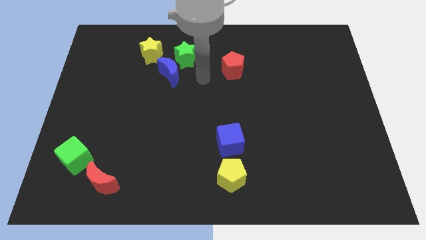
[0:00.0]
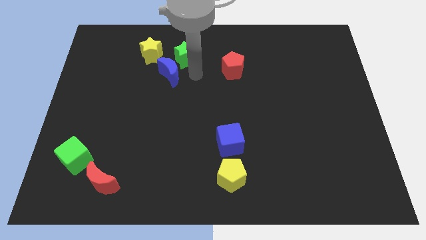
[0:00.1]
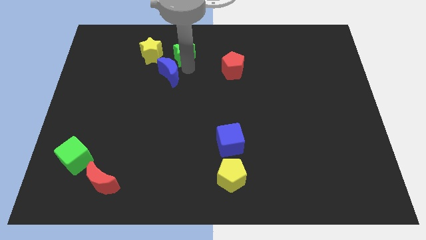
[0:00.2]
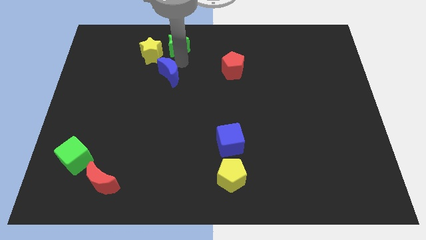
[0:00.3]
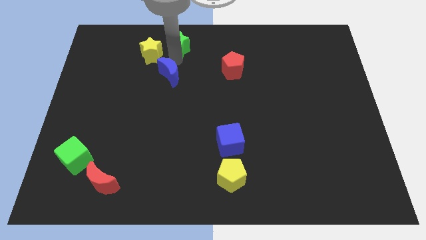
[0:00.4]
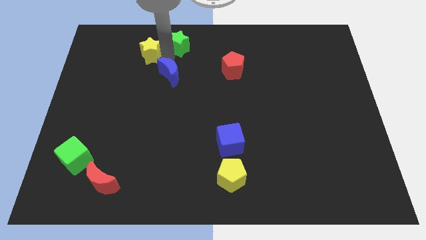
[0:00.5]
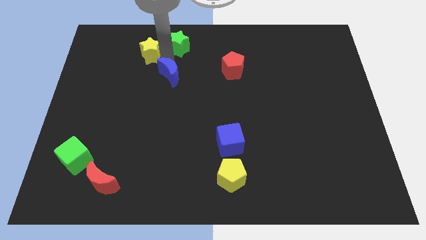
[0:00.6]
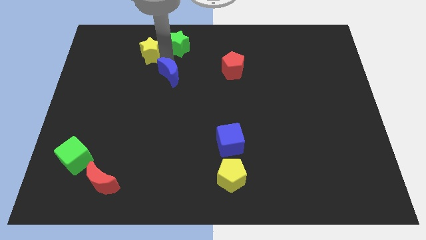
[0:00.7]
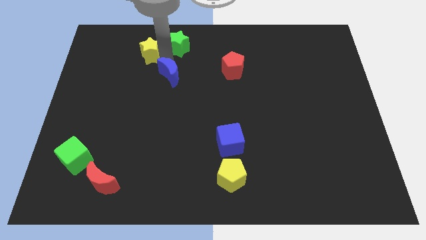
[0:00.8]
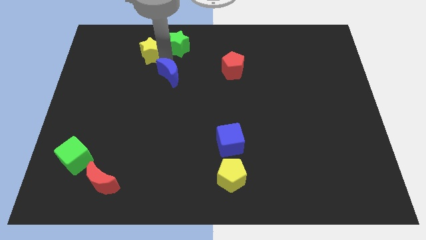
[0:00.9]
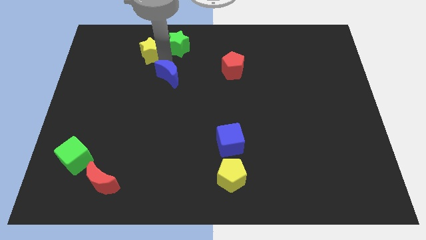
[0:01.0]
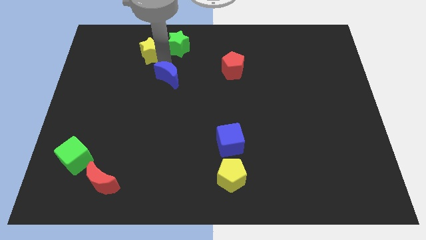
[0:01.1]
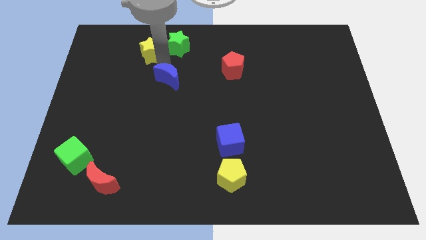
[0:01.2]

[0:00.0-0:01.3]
pull the blue moon apart from the green star and yellow star

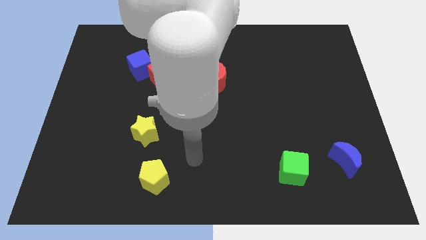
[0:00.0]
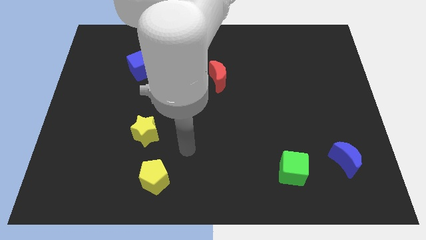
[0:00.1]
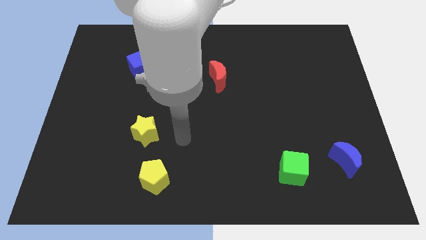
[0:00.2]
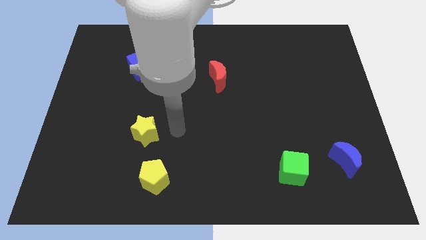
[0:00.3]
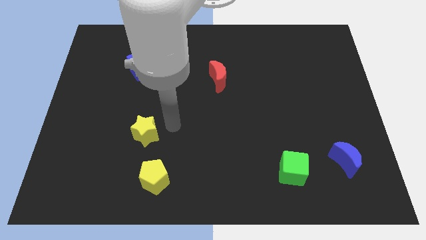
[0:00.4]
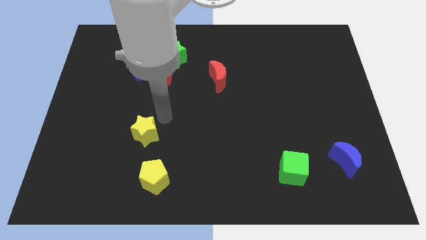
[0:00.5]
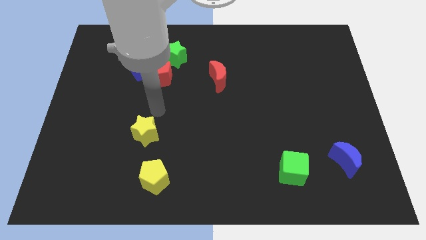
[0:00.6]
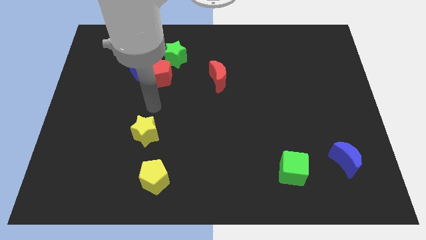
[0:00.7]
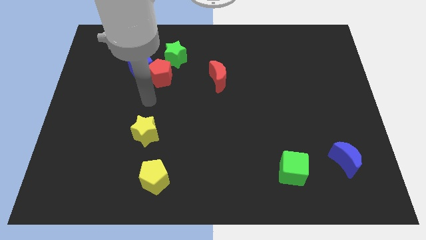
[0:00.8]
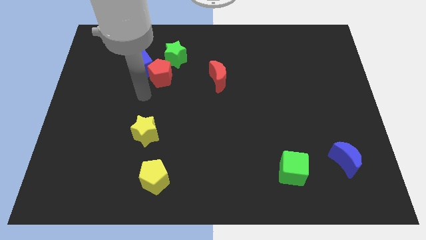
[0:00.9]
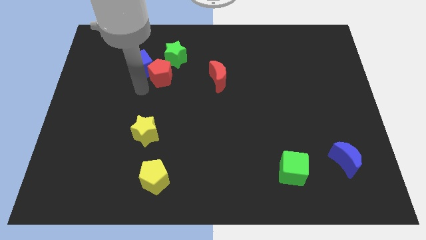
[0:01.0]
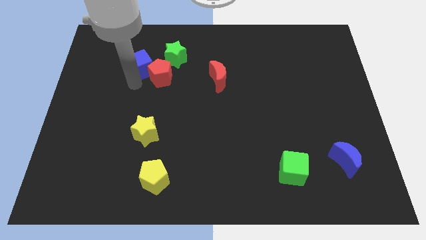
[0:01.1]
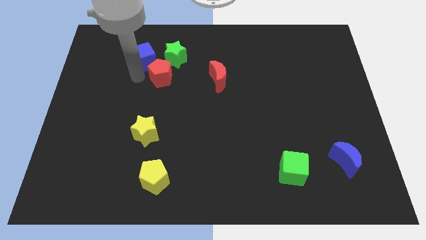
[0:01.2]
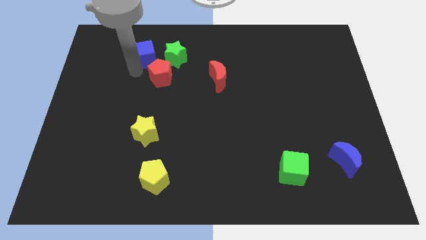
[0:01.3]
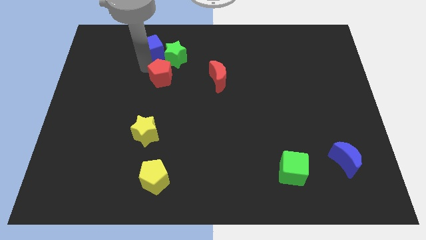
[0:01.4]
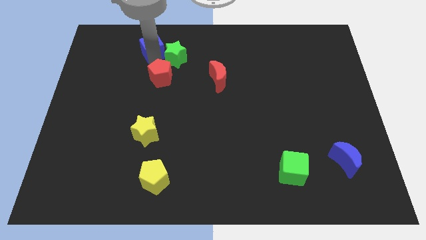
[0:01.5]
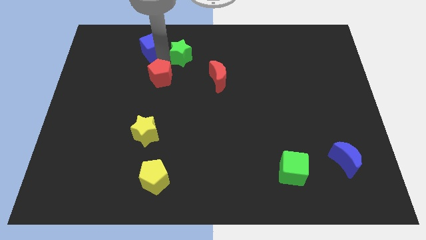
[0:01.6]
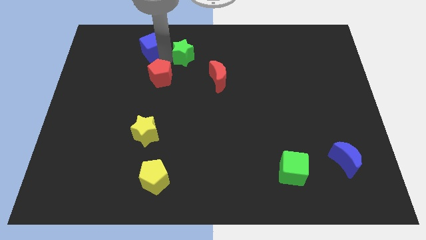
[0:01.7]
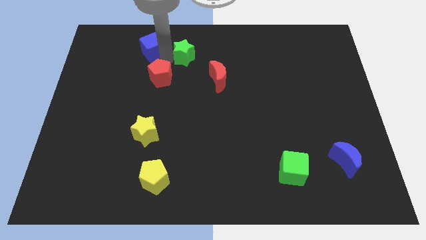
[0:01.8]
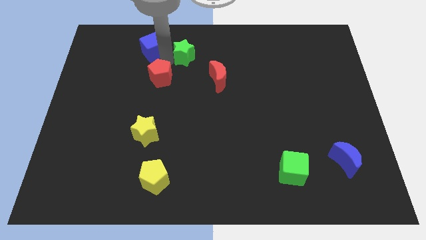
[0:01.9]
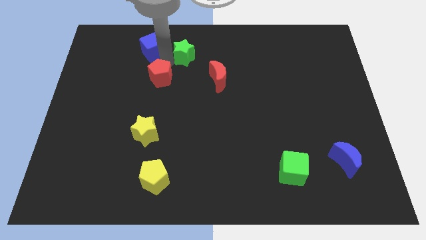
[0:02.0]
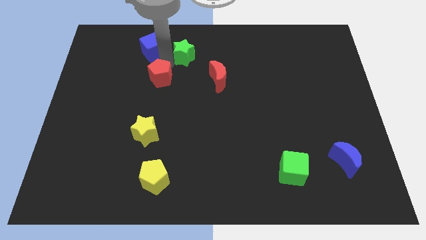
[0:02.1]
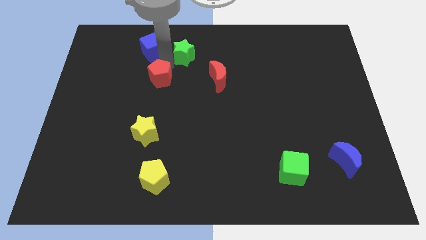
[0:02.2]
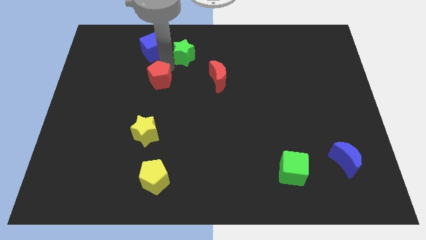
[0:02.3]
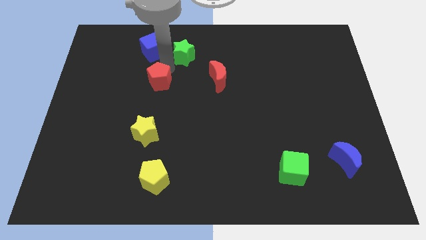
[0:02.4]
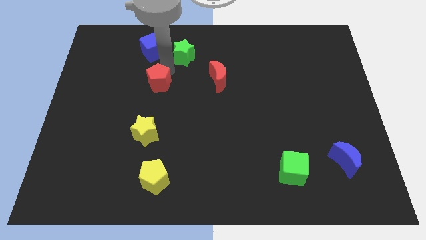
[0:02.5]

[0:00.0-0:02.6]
move the red pentagon away from the blue cube and green star

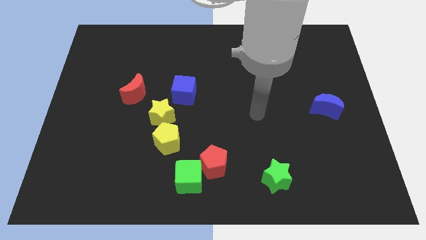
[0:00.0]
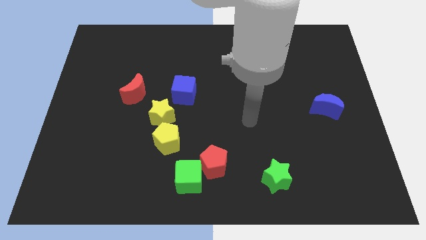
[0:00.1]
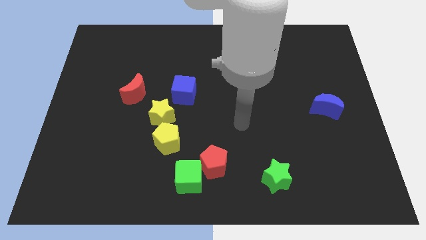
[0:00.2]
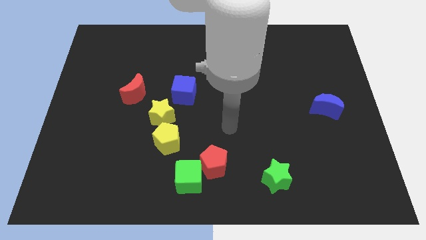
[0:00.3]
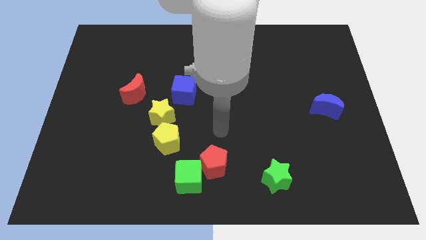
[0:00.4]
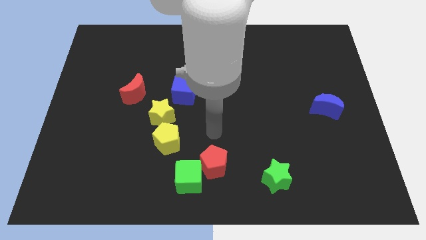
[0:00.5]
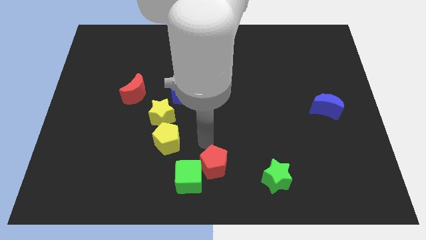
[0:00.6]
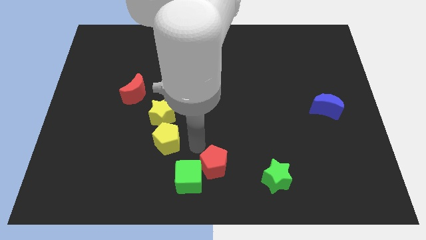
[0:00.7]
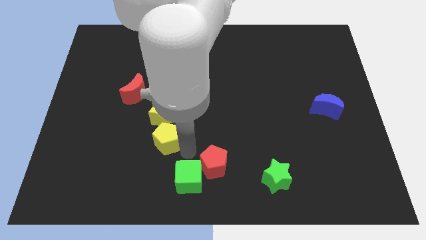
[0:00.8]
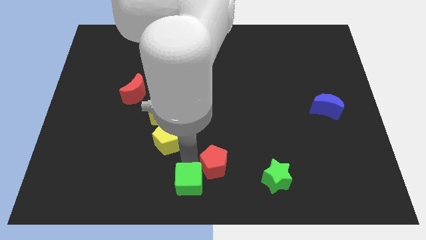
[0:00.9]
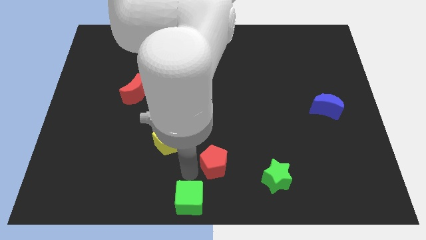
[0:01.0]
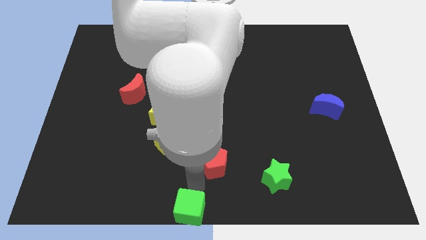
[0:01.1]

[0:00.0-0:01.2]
move the red pentagon away from the green cube

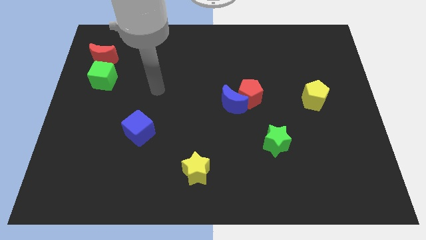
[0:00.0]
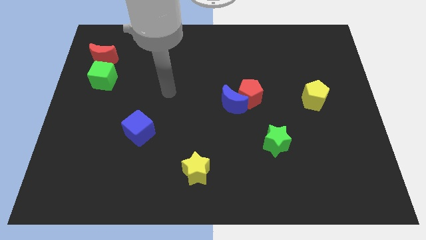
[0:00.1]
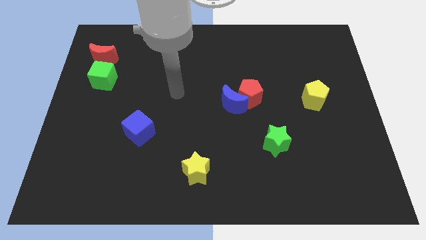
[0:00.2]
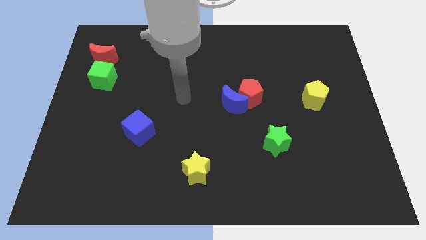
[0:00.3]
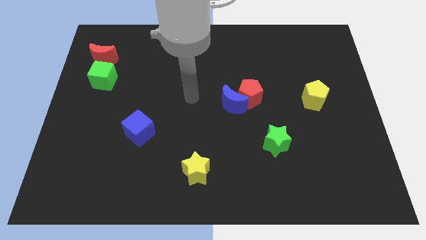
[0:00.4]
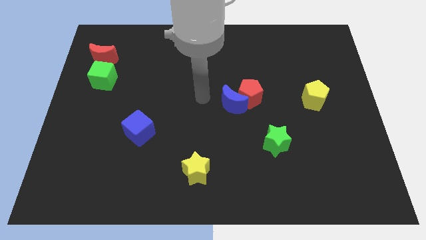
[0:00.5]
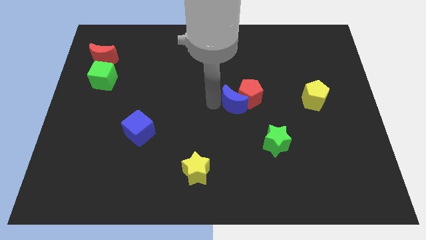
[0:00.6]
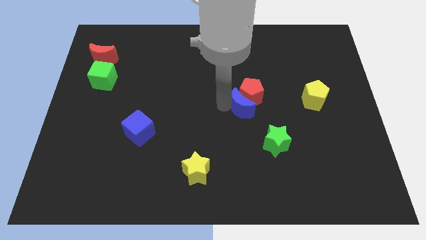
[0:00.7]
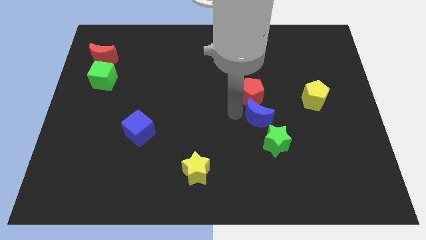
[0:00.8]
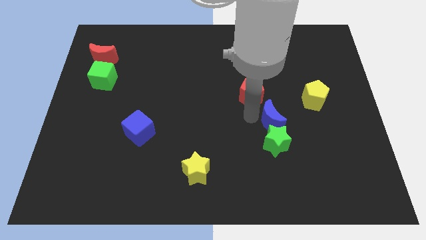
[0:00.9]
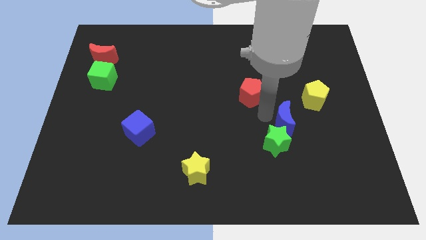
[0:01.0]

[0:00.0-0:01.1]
pull the red pentagon apart from the blue moon

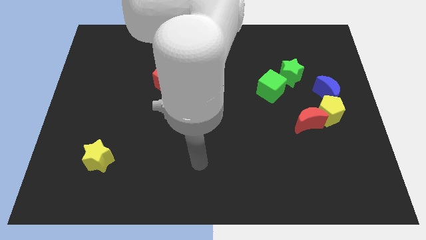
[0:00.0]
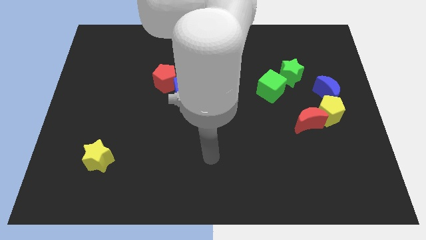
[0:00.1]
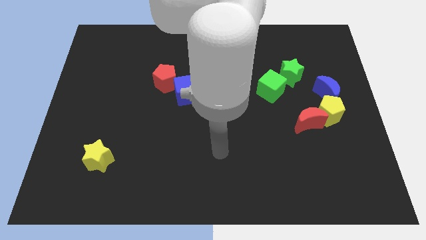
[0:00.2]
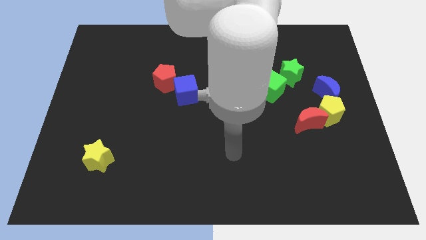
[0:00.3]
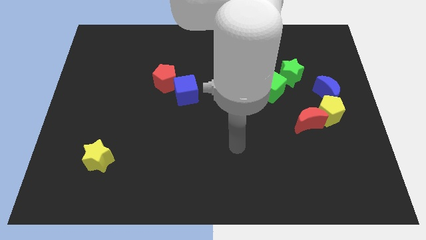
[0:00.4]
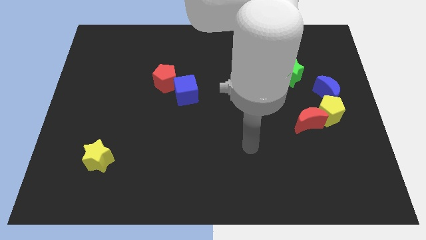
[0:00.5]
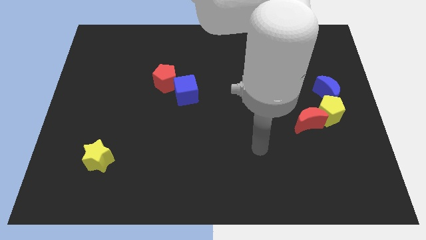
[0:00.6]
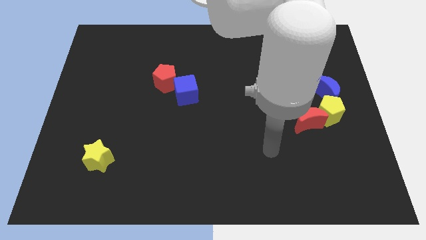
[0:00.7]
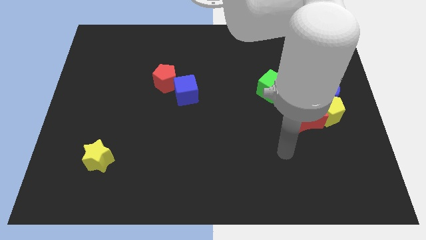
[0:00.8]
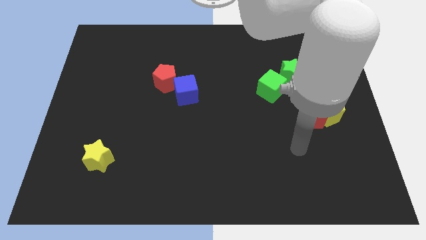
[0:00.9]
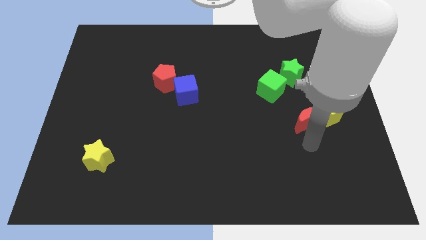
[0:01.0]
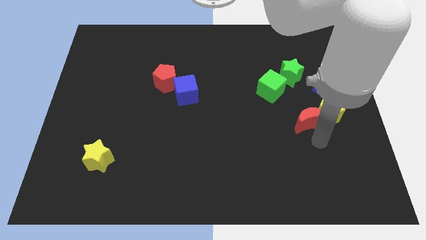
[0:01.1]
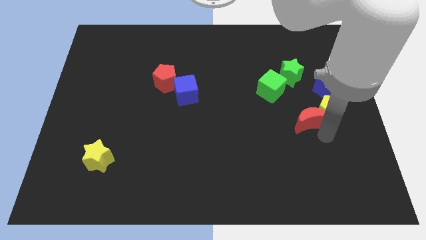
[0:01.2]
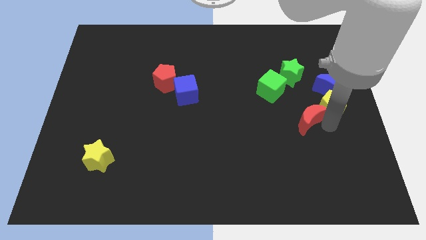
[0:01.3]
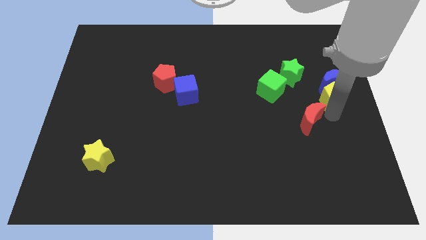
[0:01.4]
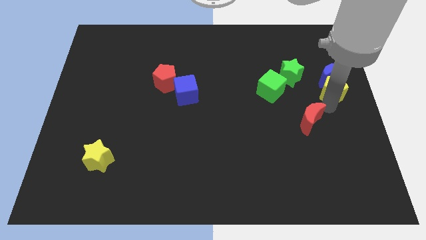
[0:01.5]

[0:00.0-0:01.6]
pull the red moon apart from the yellow pentagon

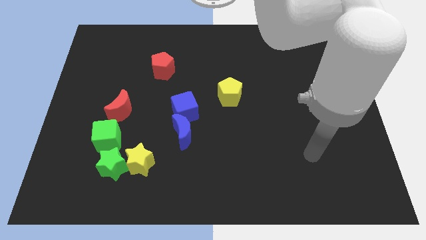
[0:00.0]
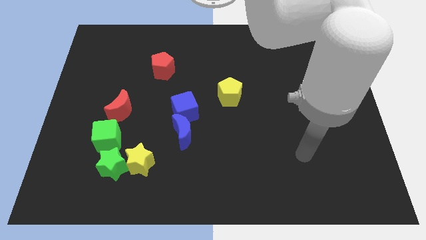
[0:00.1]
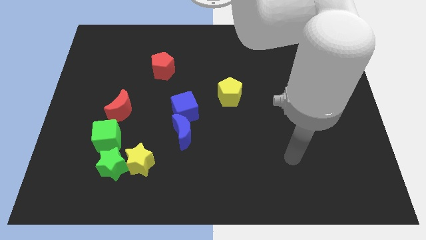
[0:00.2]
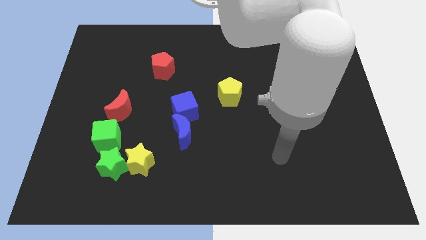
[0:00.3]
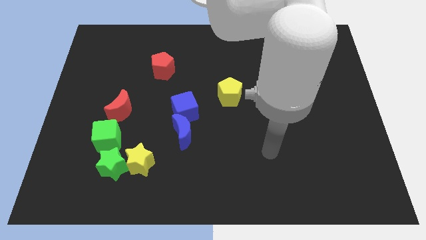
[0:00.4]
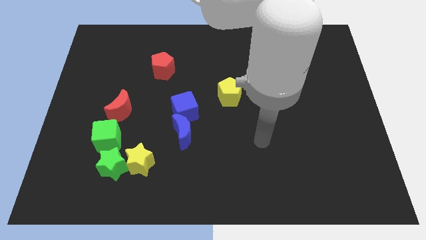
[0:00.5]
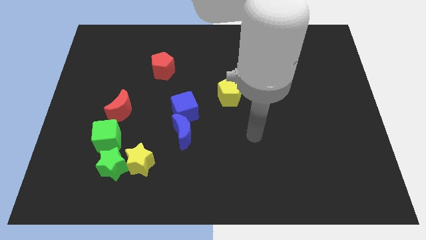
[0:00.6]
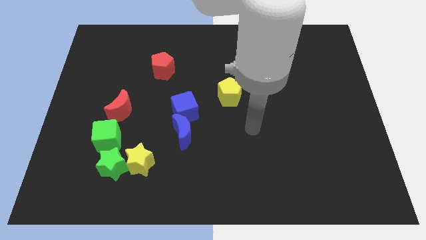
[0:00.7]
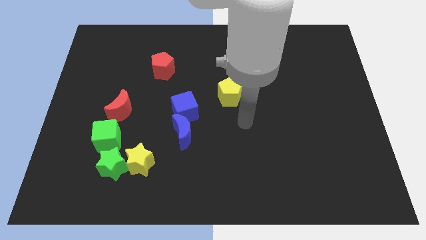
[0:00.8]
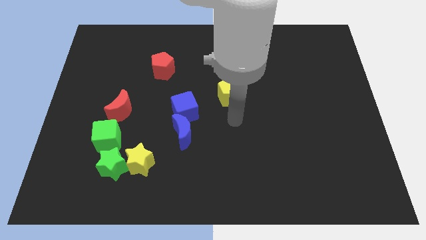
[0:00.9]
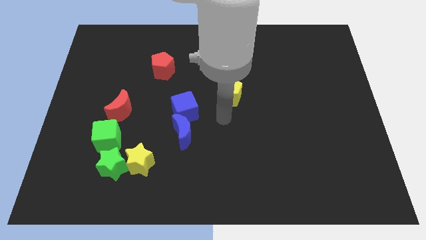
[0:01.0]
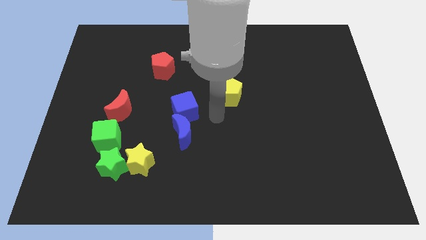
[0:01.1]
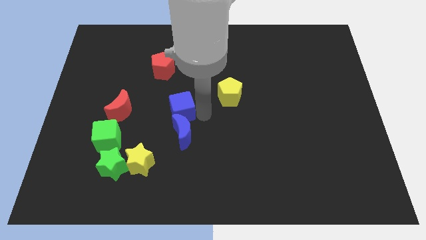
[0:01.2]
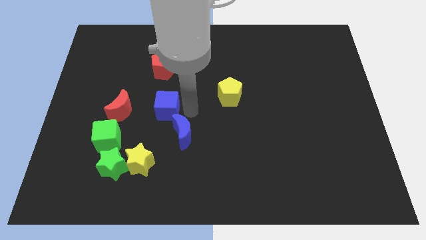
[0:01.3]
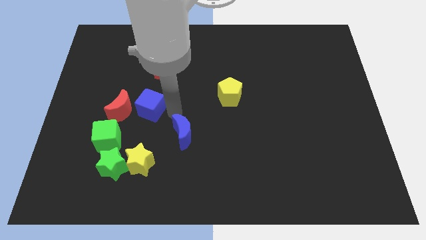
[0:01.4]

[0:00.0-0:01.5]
separate the blue moon from the blue cube

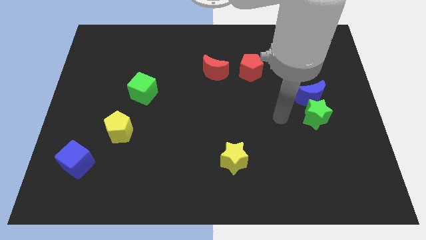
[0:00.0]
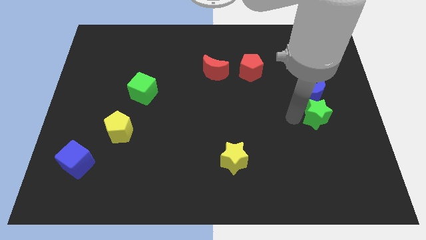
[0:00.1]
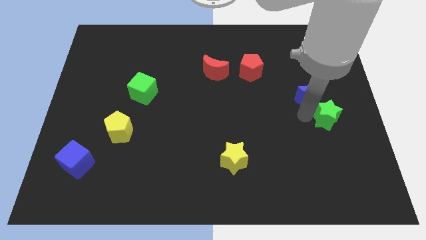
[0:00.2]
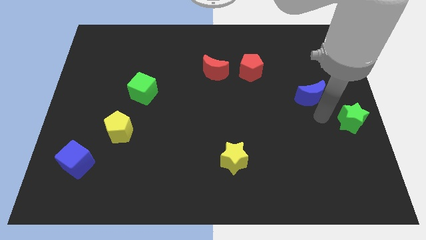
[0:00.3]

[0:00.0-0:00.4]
move the blue moon away from the green star
